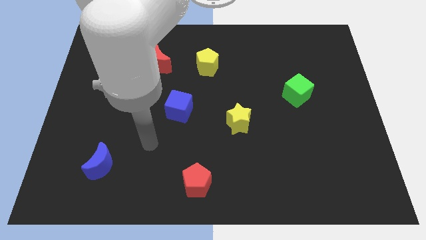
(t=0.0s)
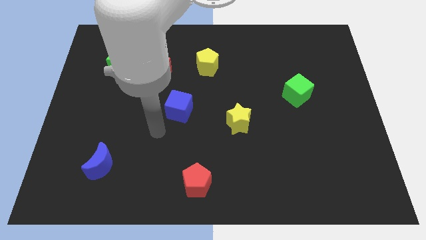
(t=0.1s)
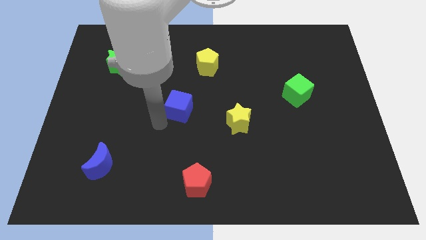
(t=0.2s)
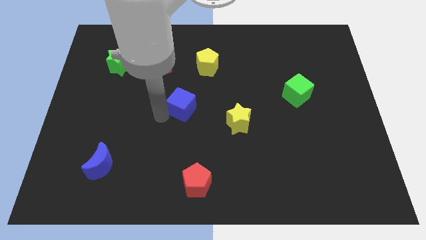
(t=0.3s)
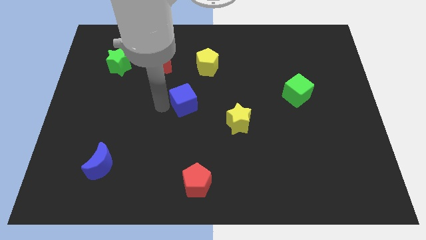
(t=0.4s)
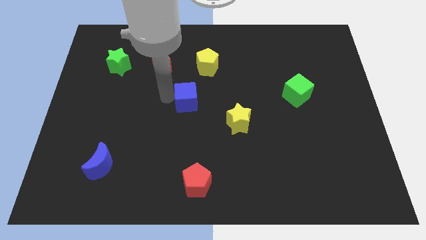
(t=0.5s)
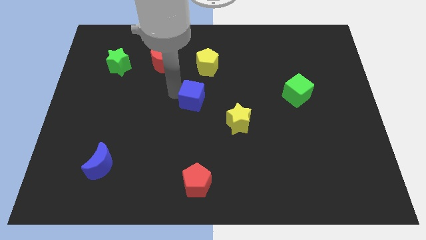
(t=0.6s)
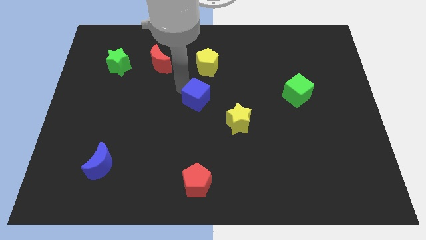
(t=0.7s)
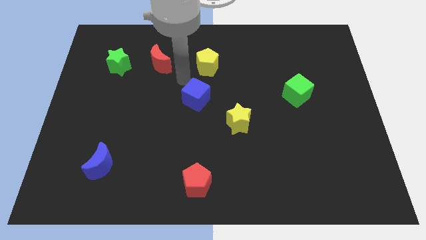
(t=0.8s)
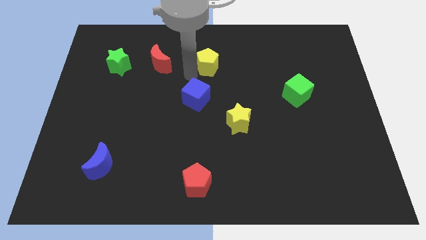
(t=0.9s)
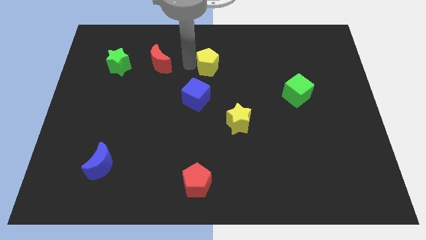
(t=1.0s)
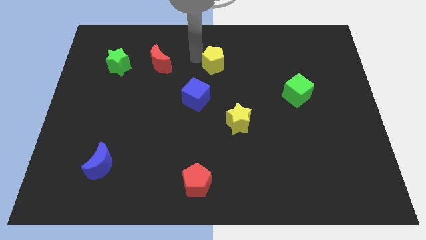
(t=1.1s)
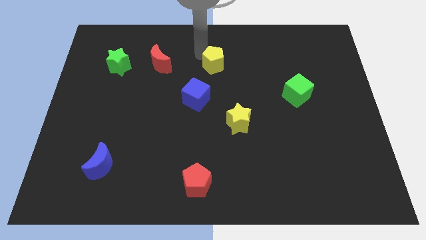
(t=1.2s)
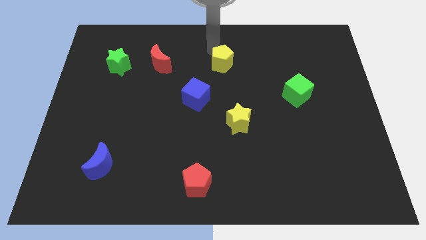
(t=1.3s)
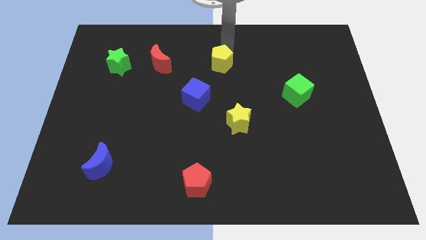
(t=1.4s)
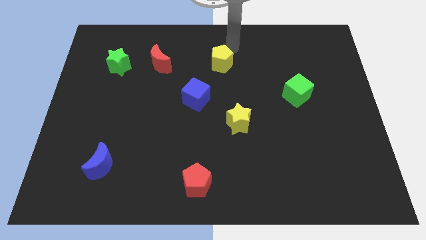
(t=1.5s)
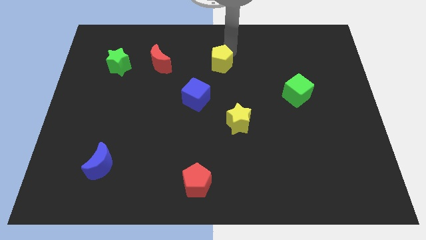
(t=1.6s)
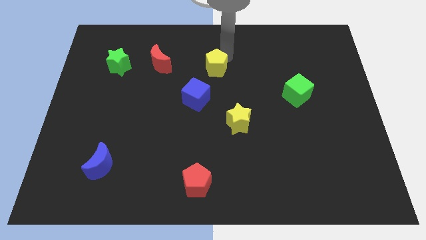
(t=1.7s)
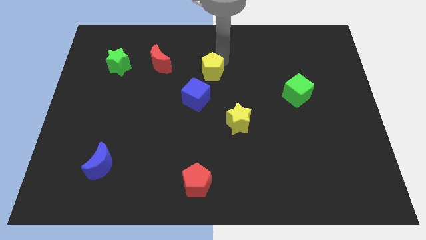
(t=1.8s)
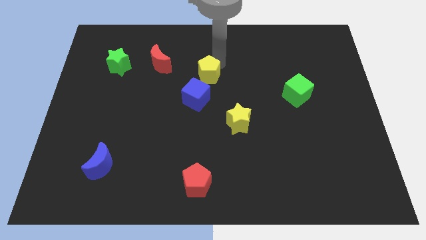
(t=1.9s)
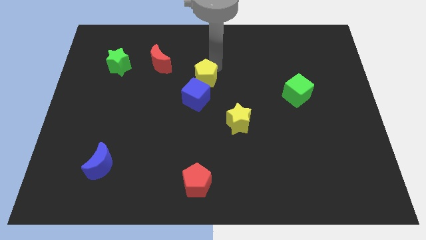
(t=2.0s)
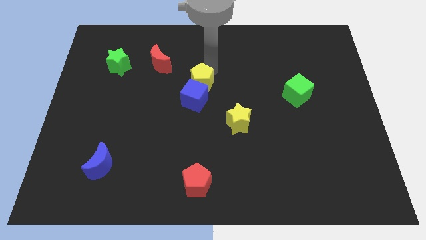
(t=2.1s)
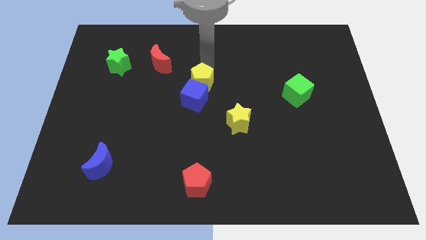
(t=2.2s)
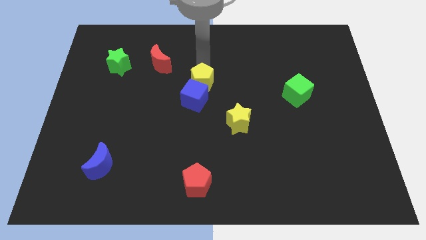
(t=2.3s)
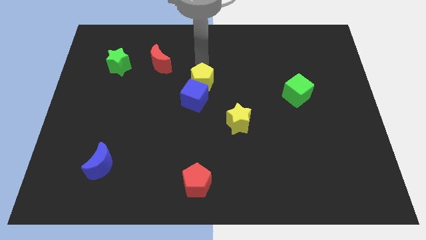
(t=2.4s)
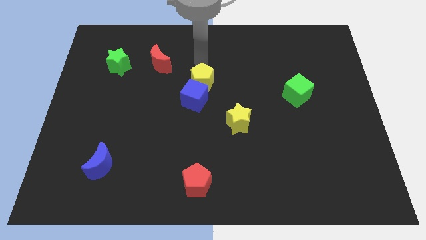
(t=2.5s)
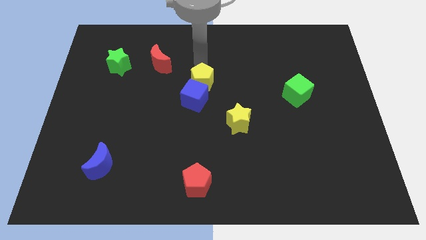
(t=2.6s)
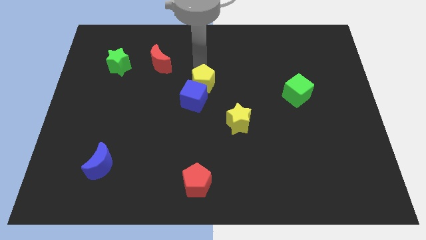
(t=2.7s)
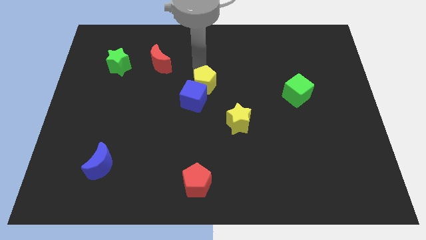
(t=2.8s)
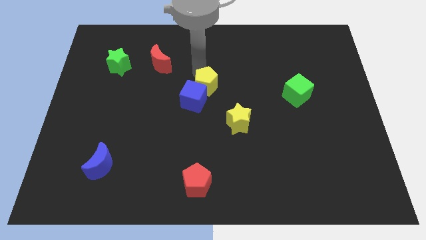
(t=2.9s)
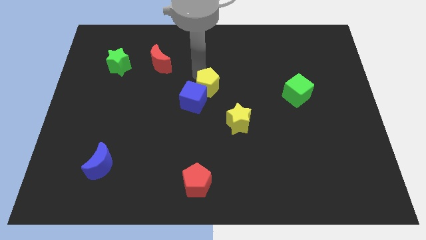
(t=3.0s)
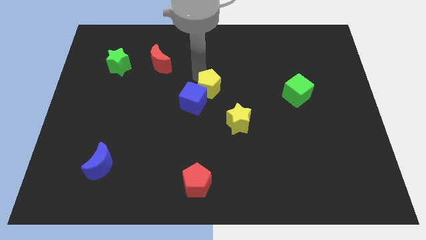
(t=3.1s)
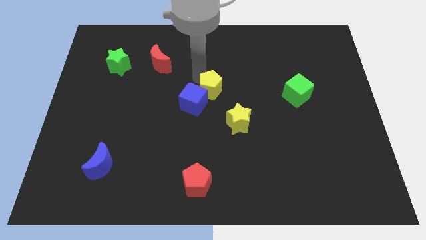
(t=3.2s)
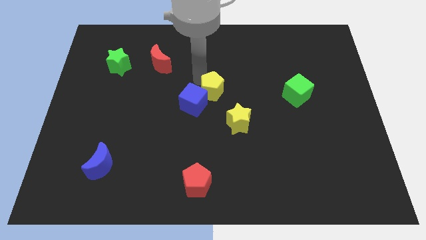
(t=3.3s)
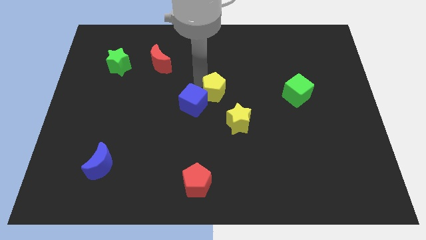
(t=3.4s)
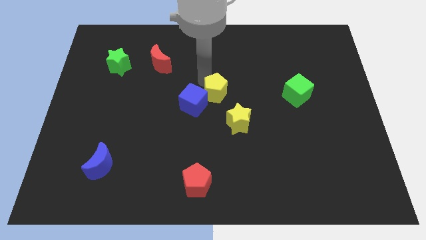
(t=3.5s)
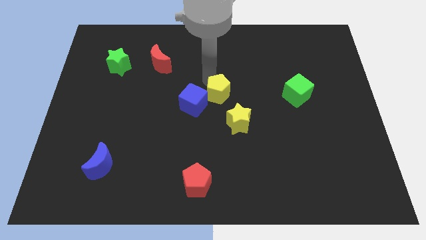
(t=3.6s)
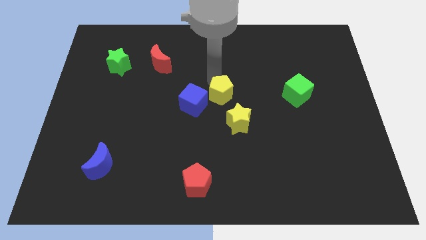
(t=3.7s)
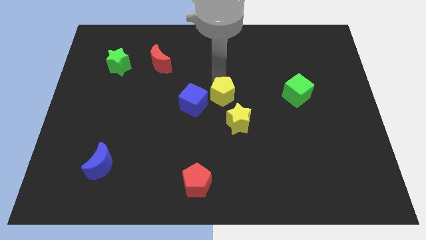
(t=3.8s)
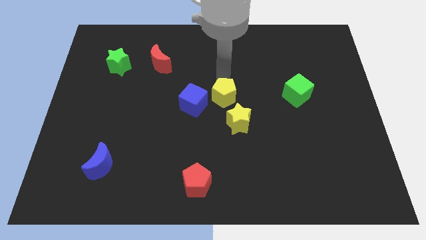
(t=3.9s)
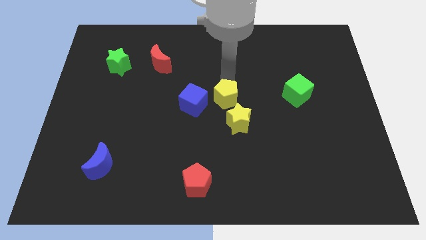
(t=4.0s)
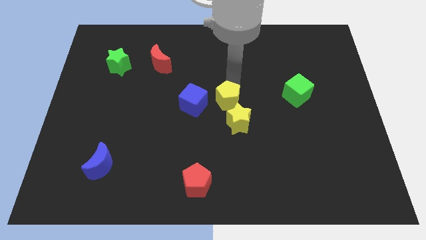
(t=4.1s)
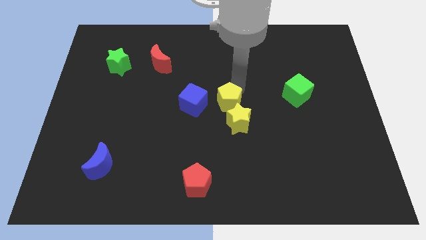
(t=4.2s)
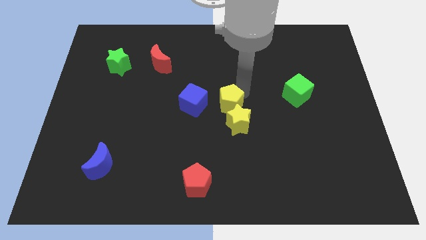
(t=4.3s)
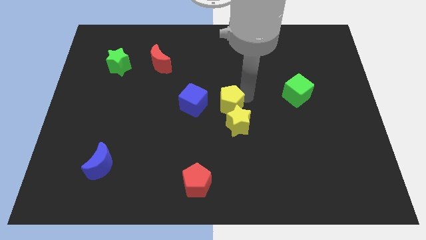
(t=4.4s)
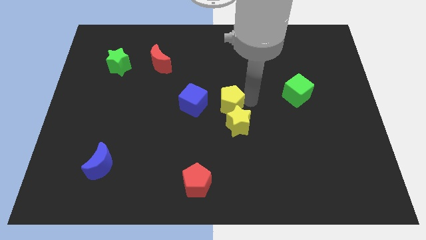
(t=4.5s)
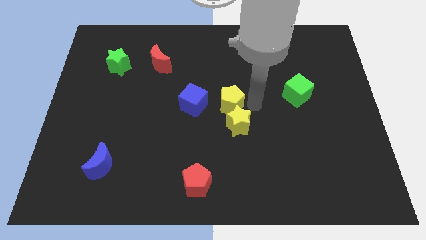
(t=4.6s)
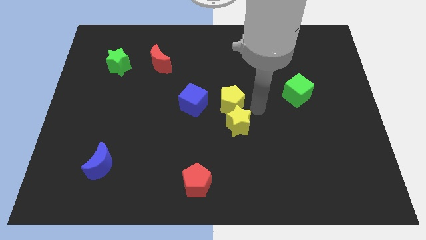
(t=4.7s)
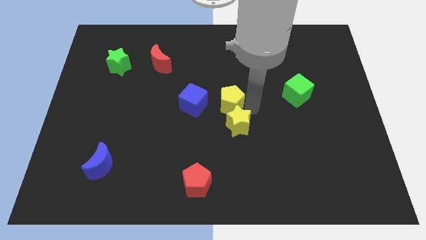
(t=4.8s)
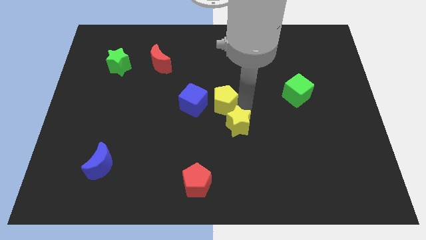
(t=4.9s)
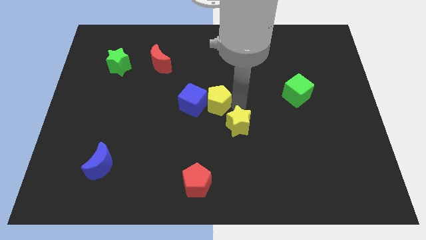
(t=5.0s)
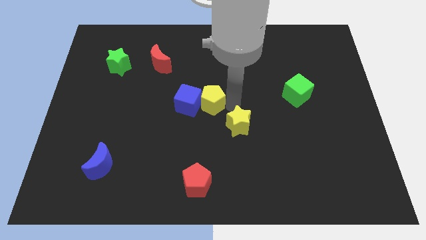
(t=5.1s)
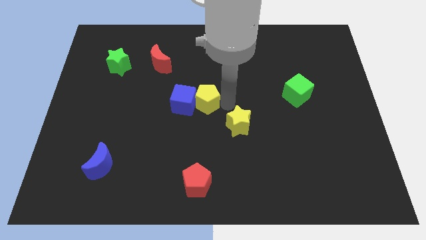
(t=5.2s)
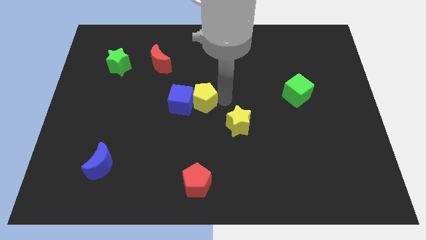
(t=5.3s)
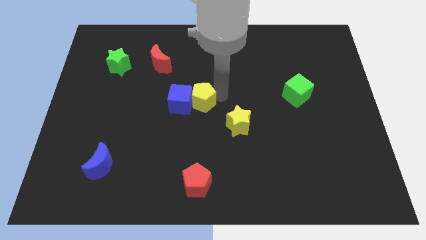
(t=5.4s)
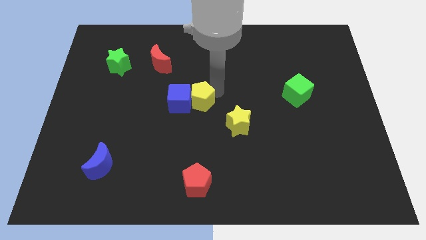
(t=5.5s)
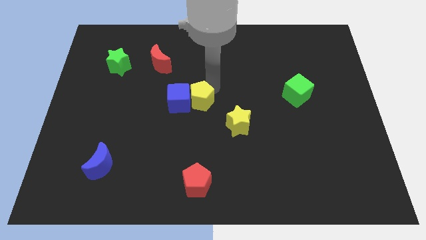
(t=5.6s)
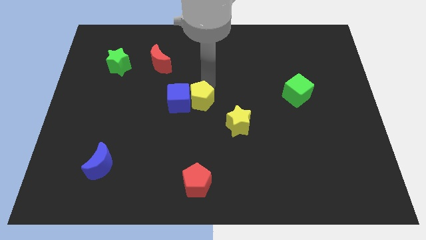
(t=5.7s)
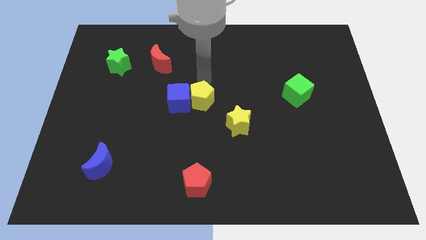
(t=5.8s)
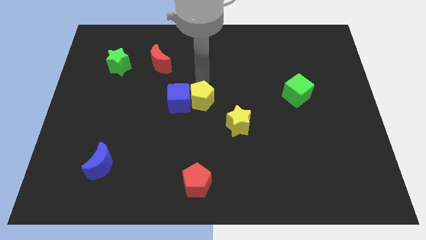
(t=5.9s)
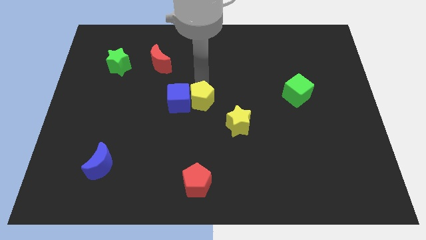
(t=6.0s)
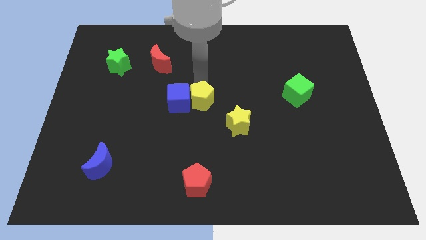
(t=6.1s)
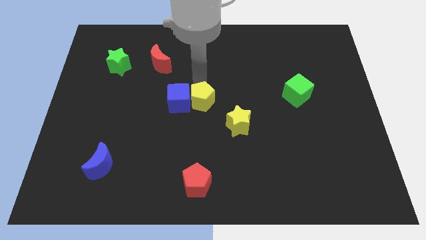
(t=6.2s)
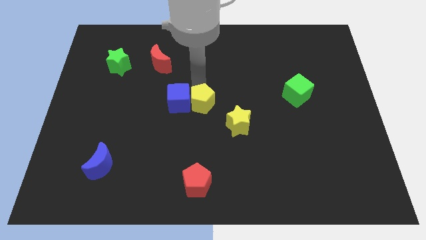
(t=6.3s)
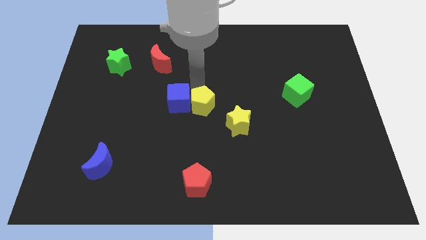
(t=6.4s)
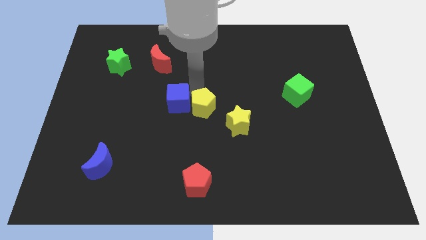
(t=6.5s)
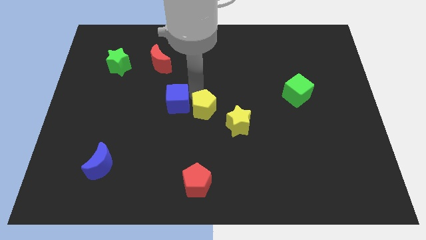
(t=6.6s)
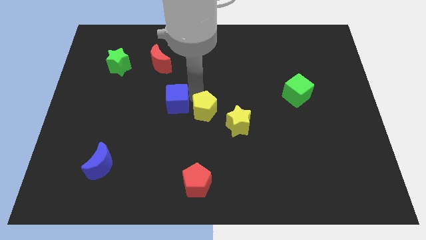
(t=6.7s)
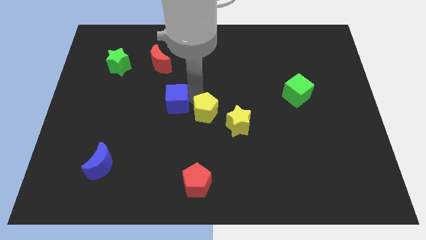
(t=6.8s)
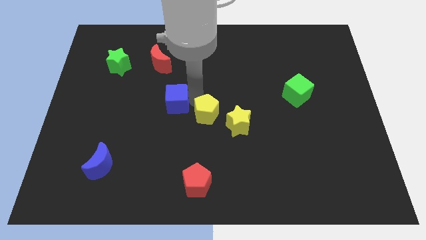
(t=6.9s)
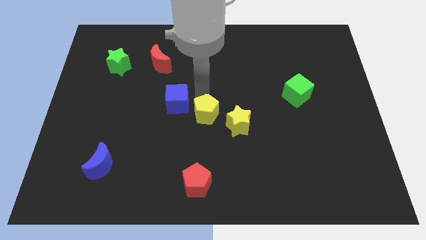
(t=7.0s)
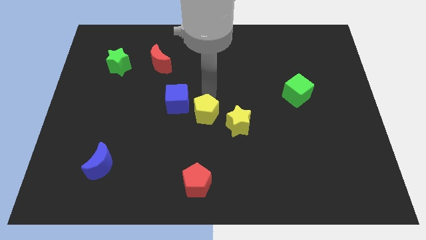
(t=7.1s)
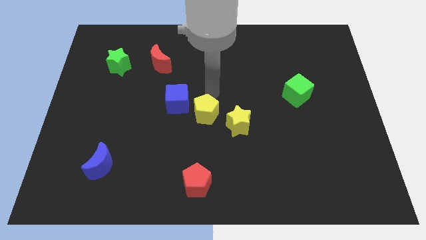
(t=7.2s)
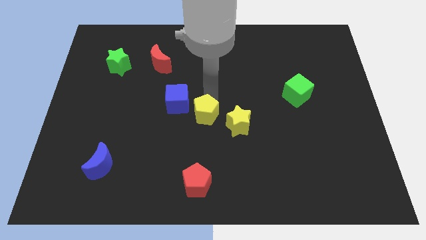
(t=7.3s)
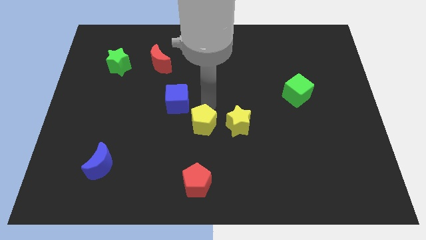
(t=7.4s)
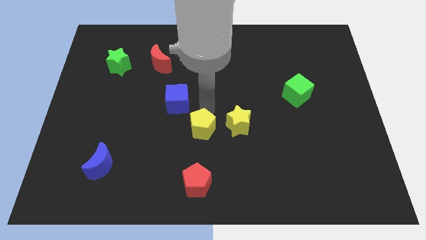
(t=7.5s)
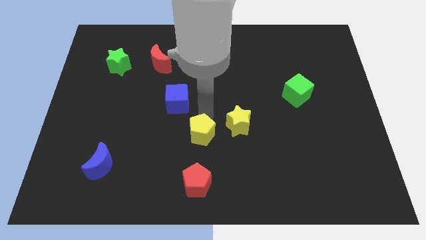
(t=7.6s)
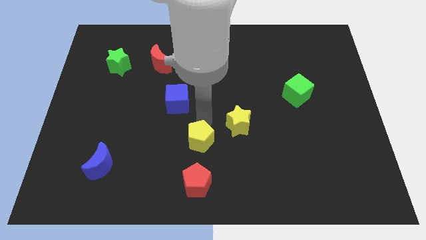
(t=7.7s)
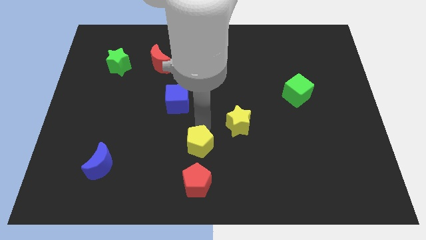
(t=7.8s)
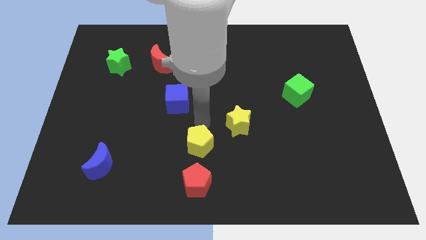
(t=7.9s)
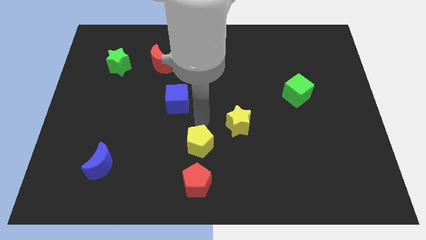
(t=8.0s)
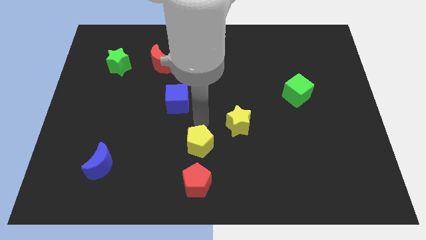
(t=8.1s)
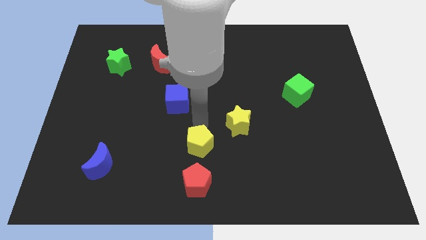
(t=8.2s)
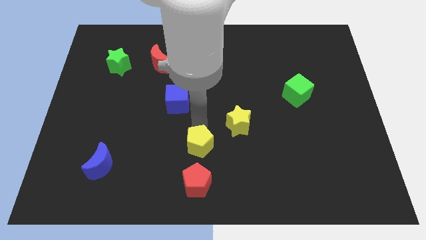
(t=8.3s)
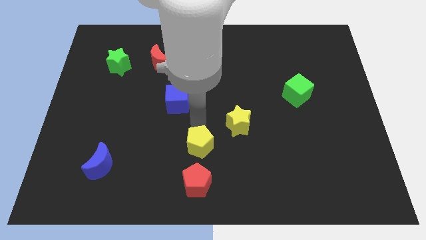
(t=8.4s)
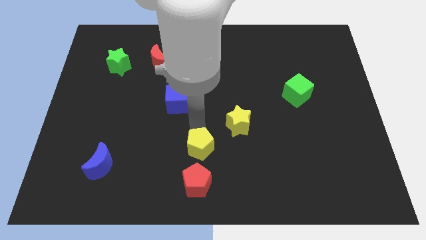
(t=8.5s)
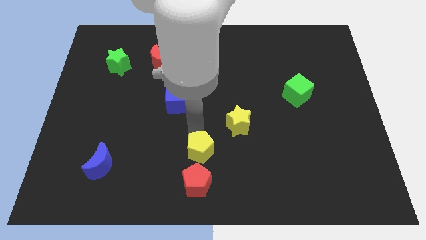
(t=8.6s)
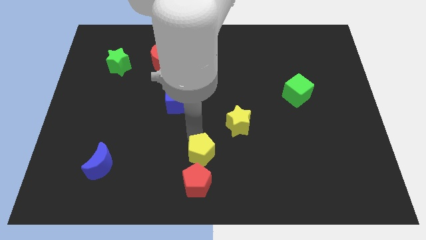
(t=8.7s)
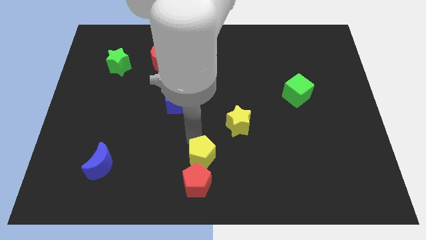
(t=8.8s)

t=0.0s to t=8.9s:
push the yellow pentagon close to the red pentagon
